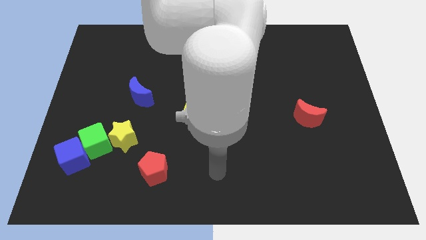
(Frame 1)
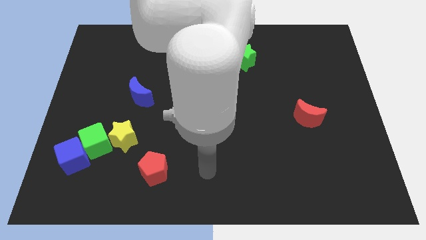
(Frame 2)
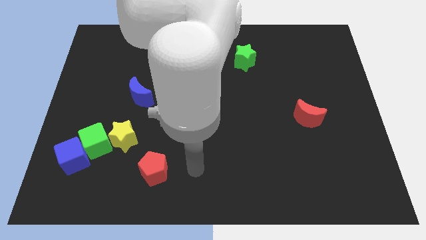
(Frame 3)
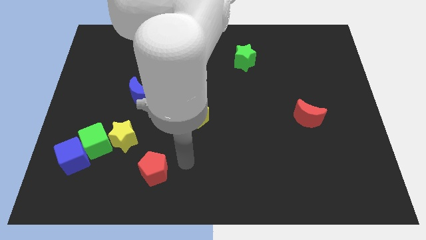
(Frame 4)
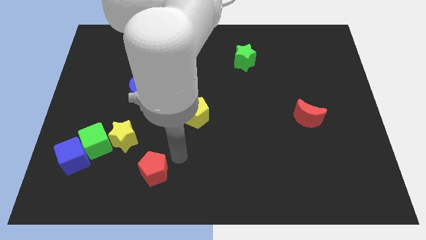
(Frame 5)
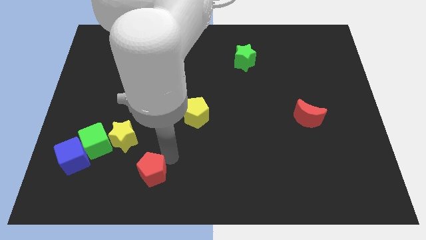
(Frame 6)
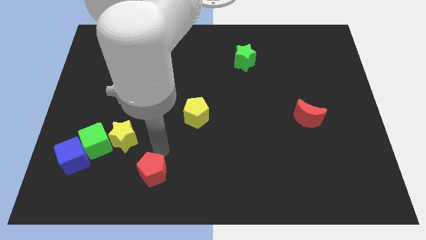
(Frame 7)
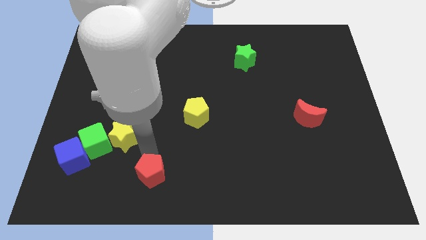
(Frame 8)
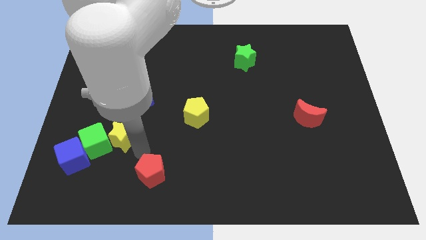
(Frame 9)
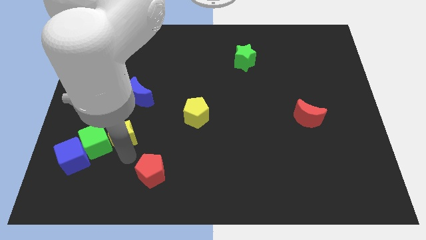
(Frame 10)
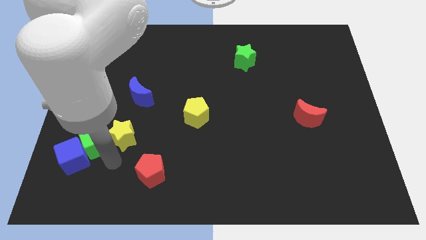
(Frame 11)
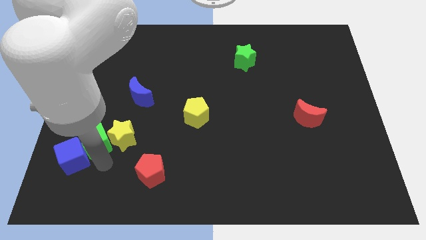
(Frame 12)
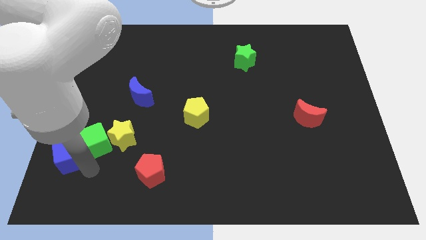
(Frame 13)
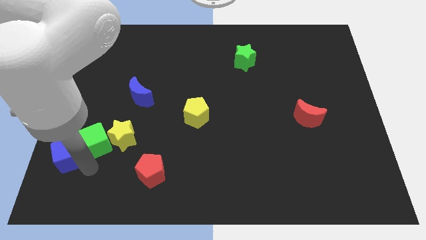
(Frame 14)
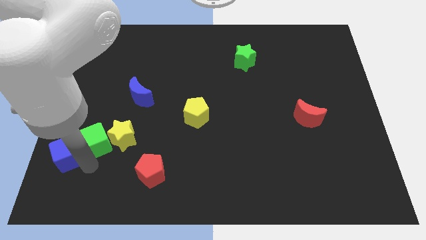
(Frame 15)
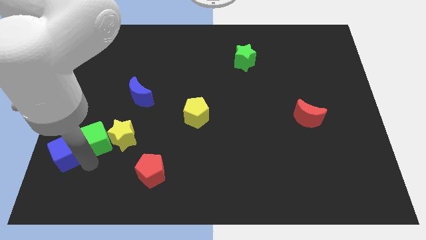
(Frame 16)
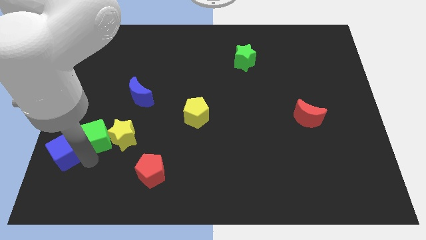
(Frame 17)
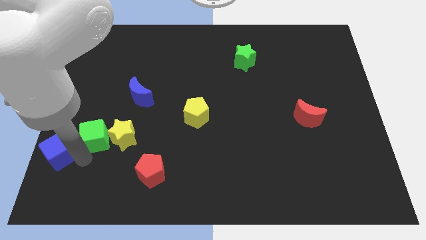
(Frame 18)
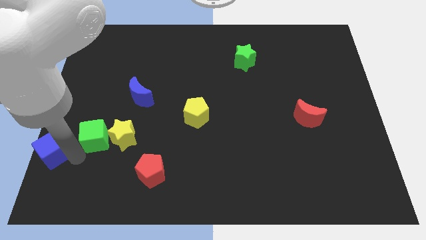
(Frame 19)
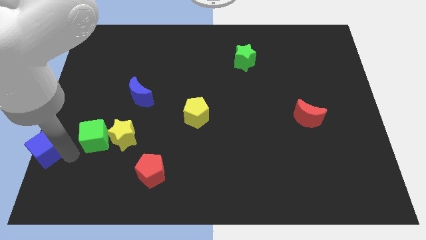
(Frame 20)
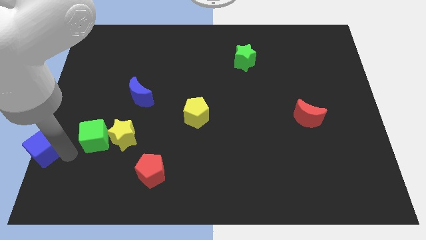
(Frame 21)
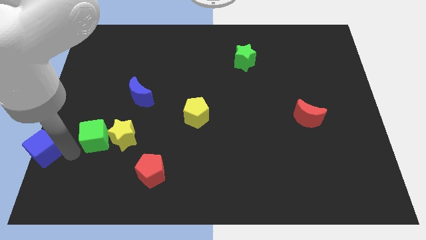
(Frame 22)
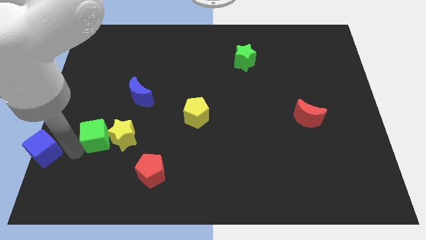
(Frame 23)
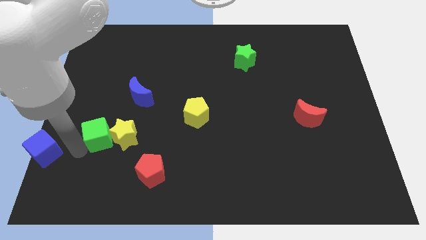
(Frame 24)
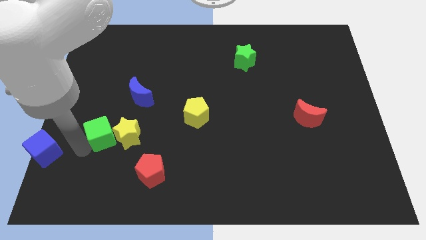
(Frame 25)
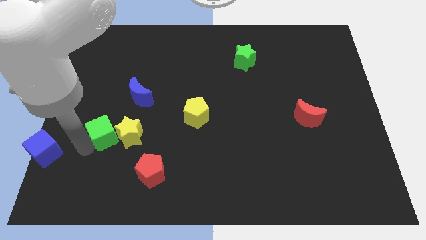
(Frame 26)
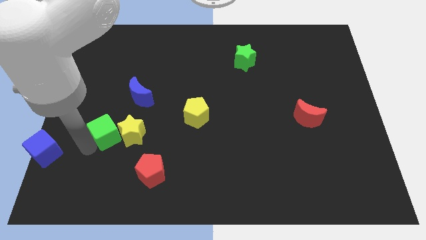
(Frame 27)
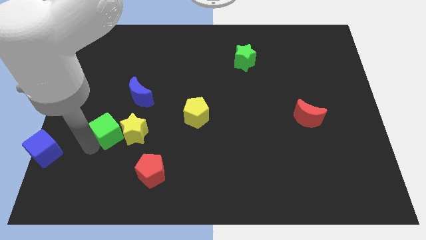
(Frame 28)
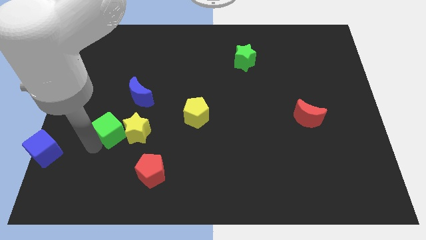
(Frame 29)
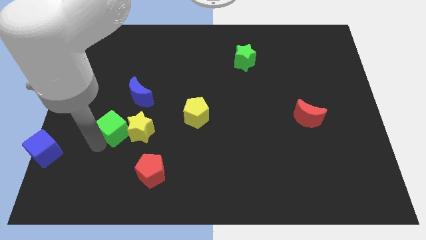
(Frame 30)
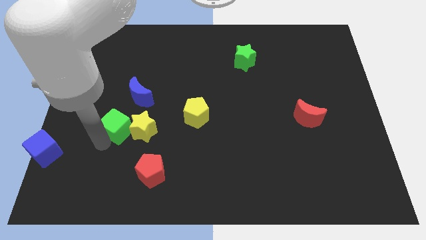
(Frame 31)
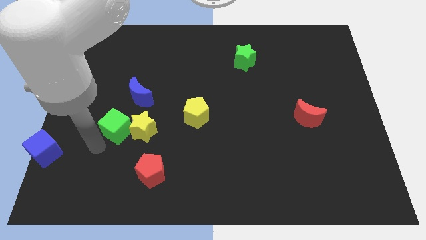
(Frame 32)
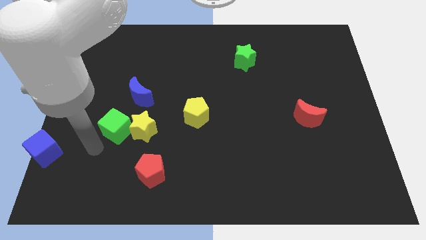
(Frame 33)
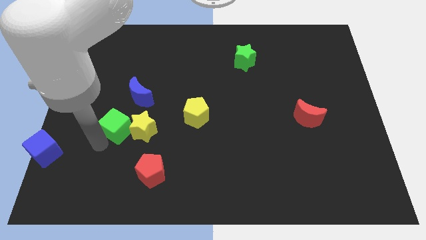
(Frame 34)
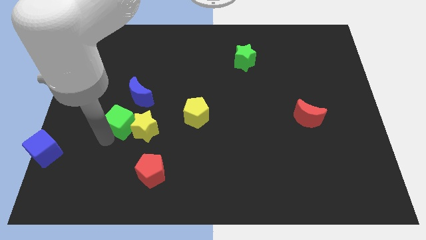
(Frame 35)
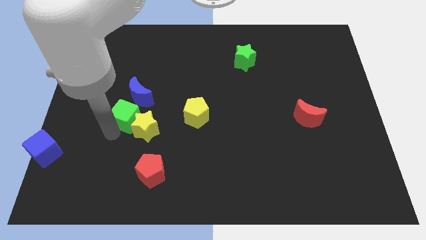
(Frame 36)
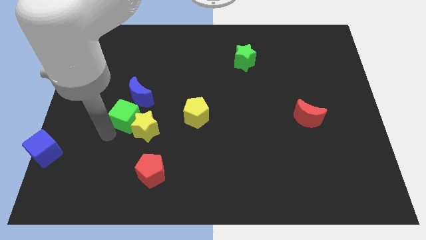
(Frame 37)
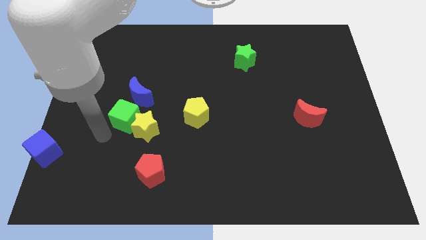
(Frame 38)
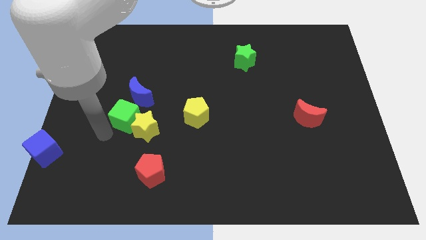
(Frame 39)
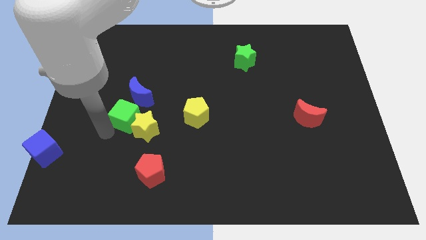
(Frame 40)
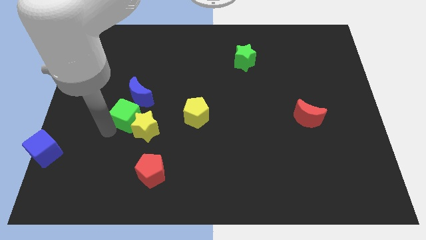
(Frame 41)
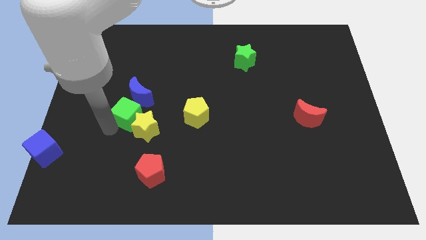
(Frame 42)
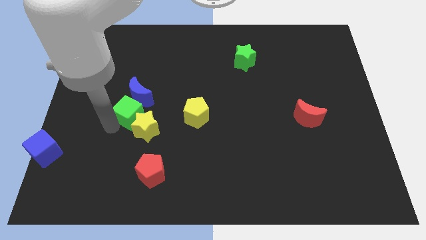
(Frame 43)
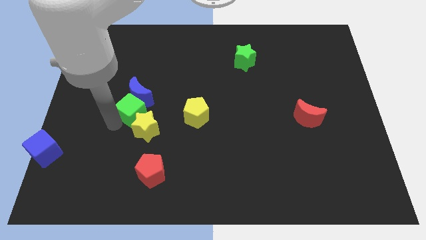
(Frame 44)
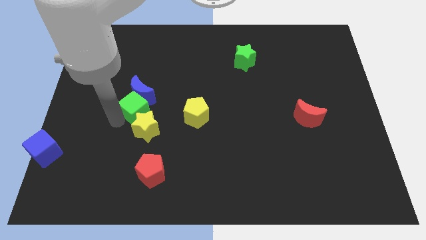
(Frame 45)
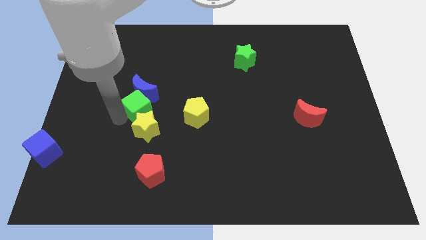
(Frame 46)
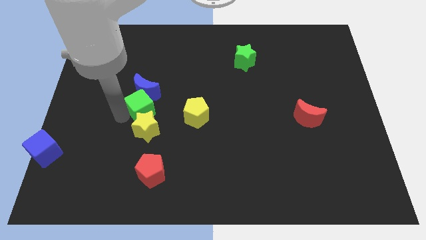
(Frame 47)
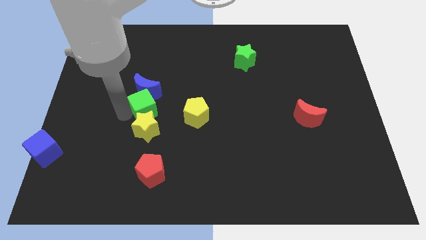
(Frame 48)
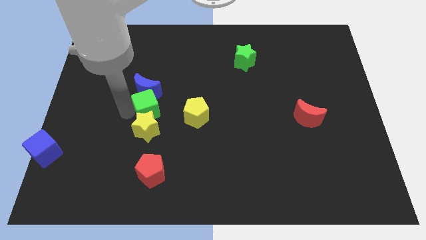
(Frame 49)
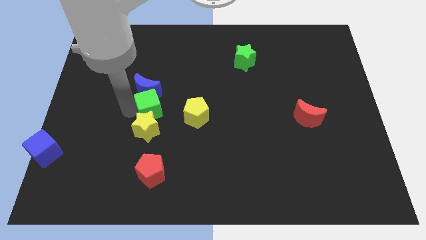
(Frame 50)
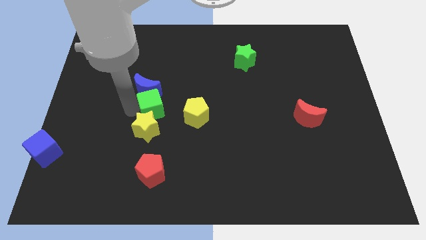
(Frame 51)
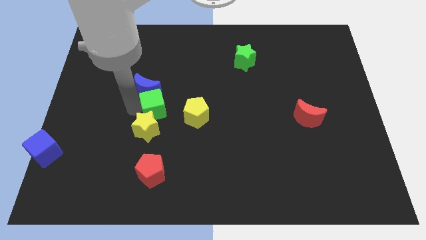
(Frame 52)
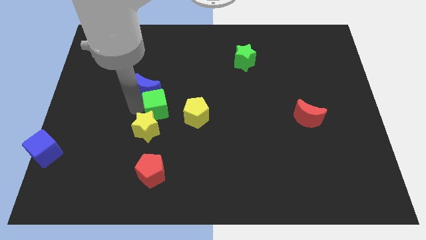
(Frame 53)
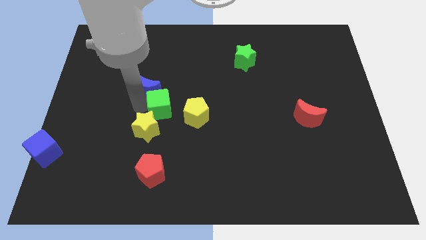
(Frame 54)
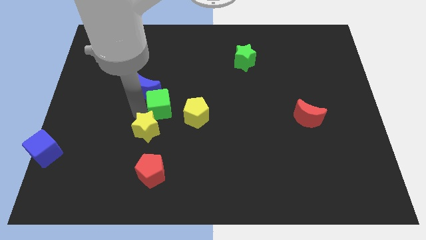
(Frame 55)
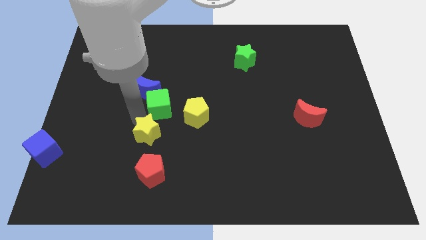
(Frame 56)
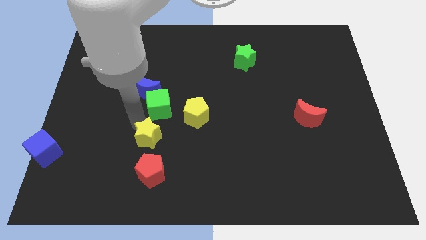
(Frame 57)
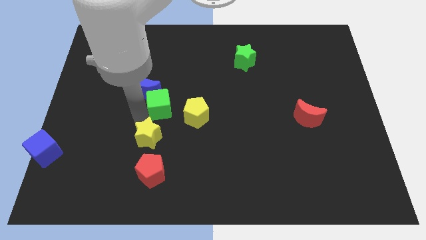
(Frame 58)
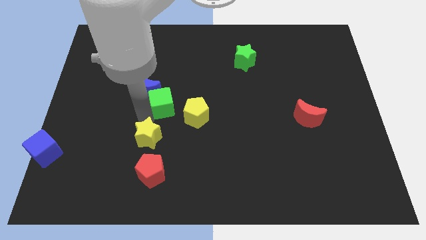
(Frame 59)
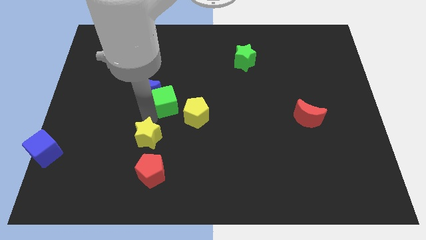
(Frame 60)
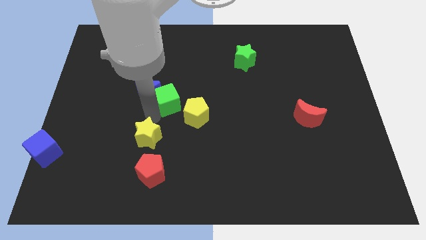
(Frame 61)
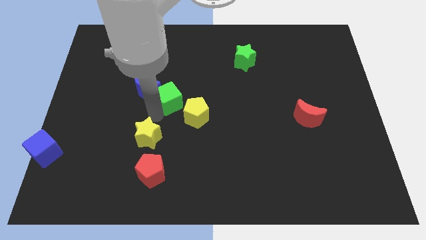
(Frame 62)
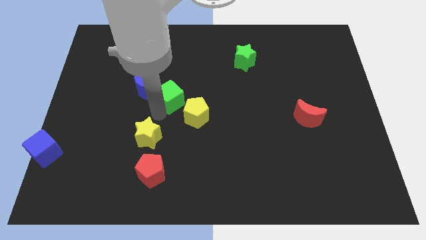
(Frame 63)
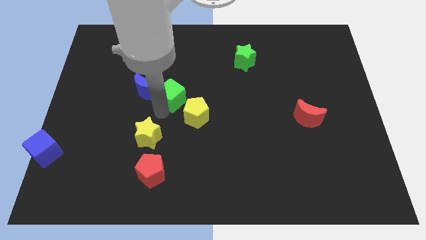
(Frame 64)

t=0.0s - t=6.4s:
move the green cube up and then right

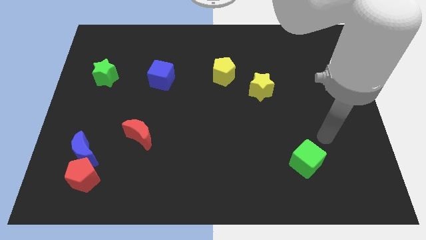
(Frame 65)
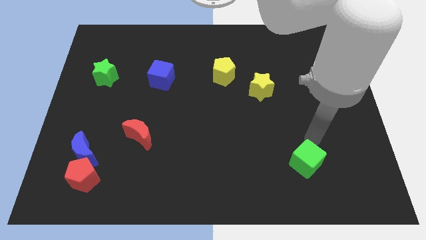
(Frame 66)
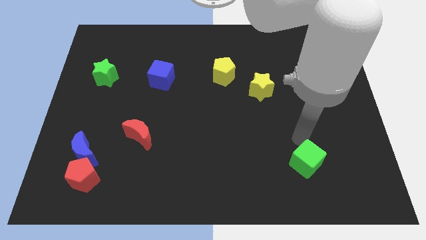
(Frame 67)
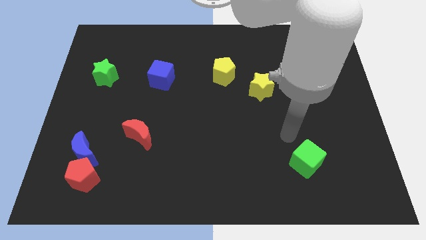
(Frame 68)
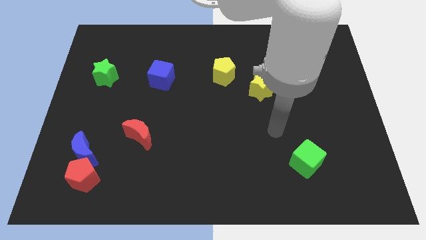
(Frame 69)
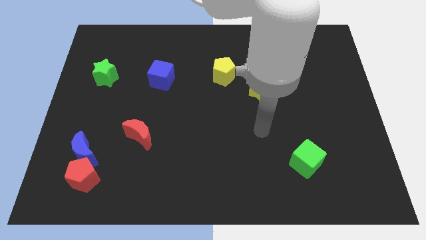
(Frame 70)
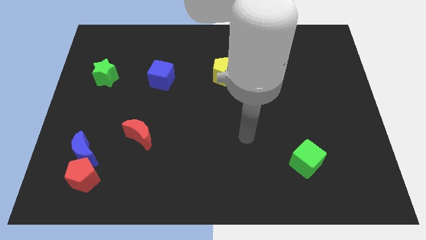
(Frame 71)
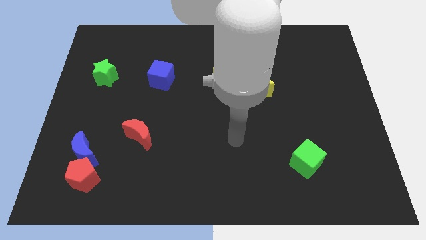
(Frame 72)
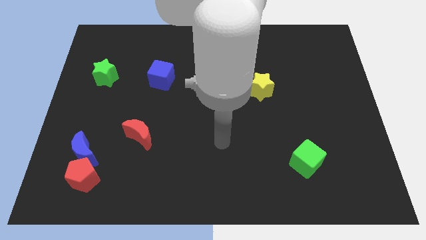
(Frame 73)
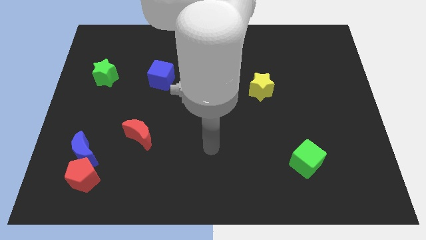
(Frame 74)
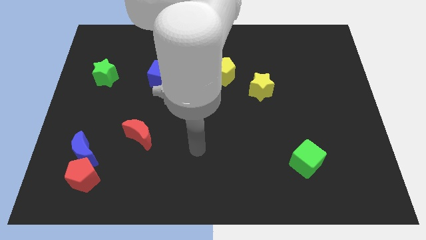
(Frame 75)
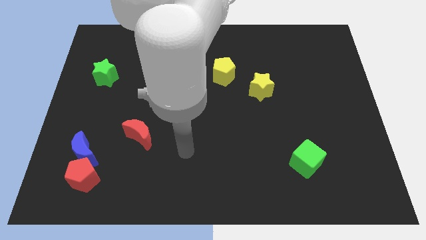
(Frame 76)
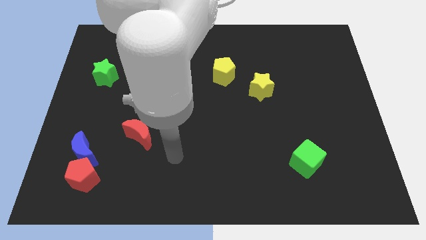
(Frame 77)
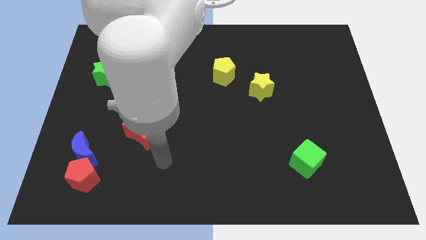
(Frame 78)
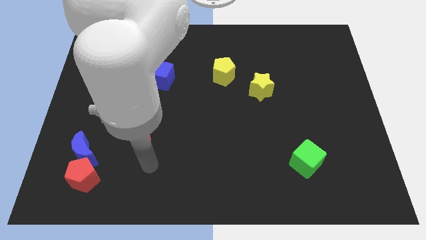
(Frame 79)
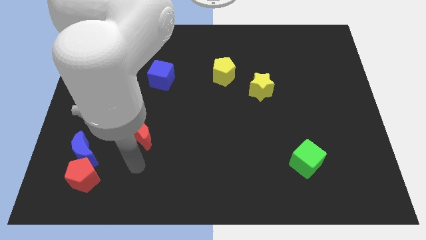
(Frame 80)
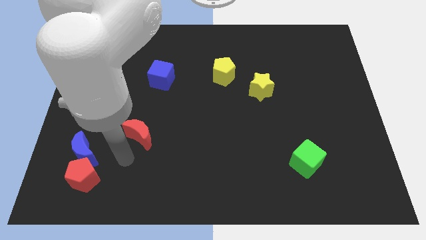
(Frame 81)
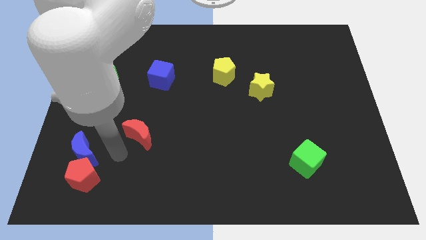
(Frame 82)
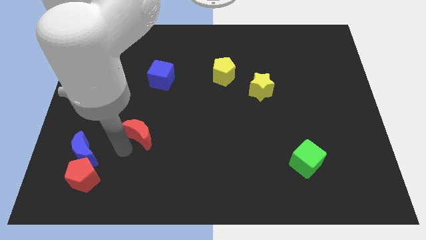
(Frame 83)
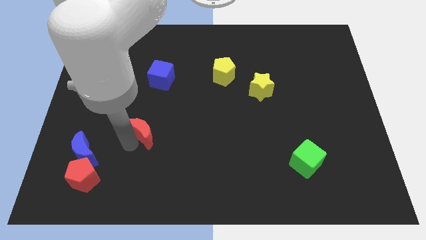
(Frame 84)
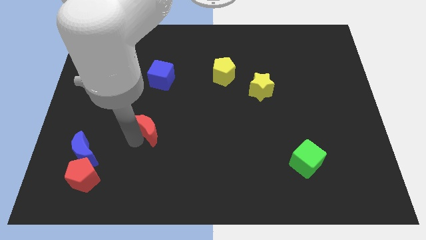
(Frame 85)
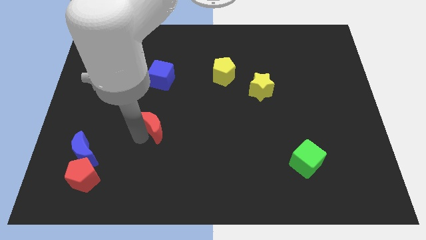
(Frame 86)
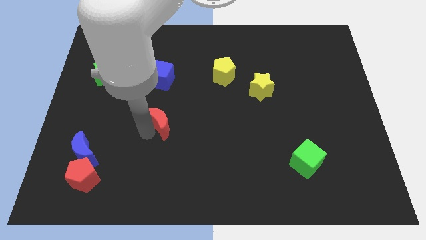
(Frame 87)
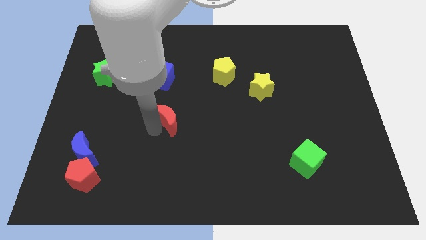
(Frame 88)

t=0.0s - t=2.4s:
push the red moon slightly upwards and then to the right
